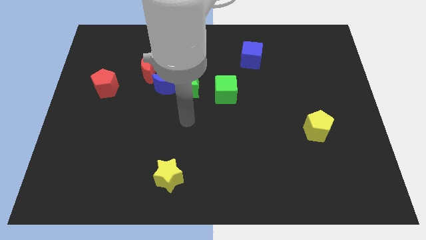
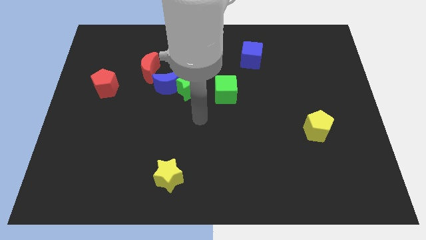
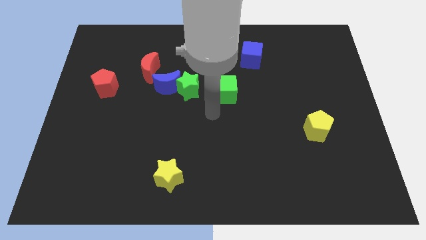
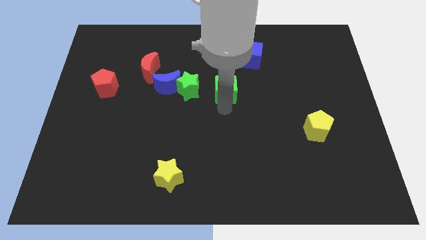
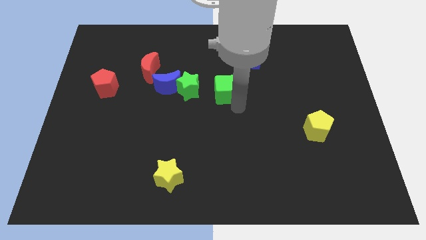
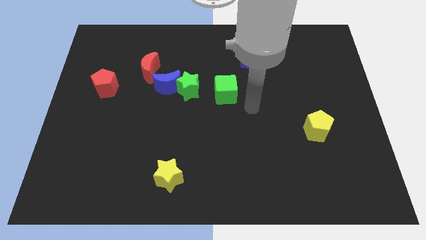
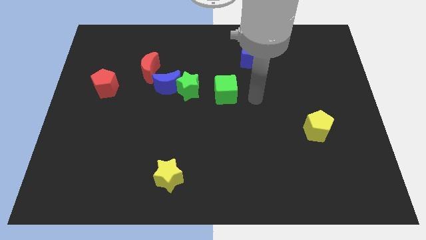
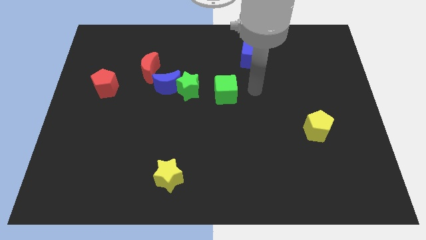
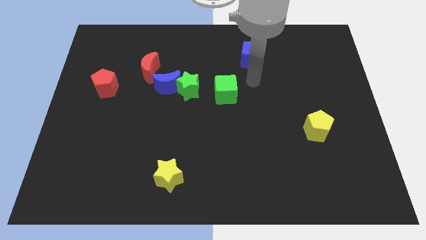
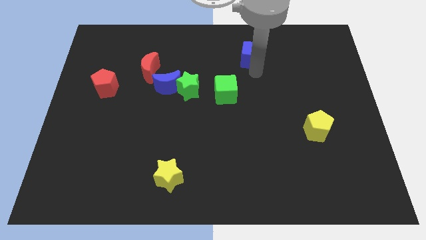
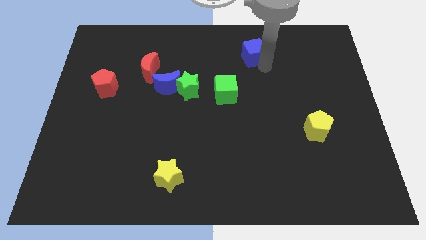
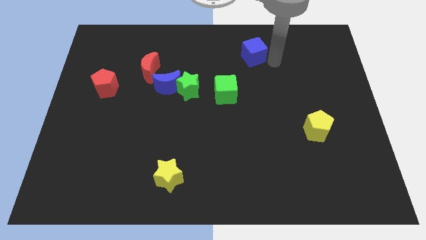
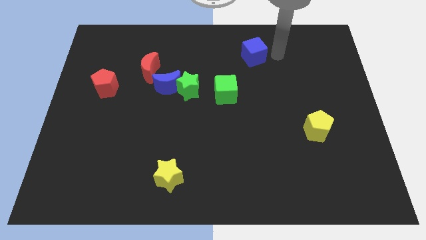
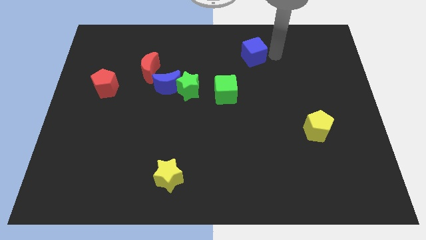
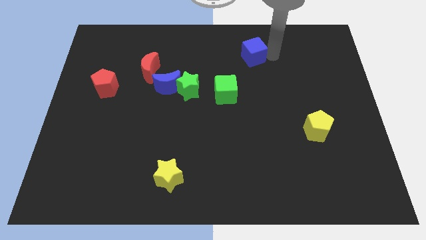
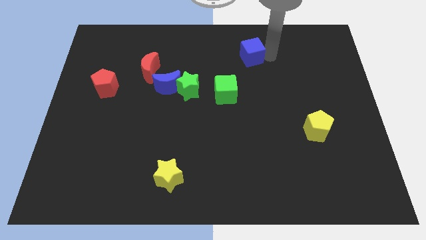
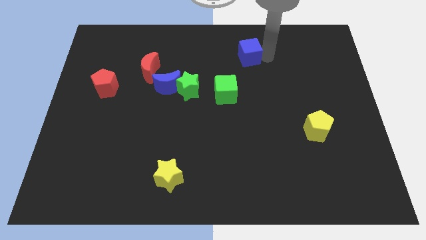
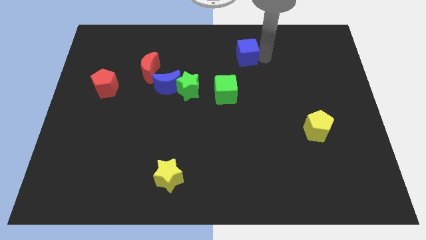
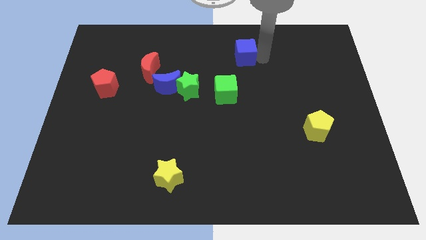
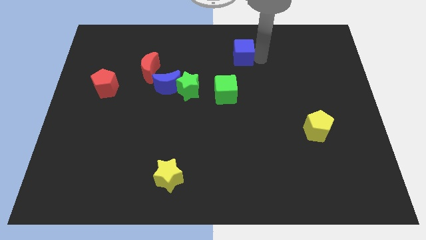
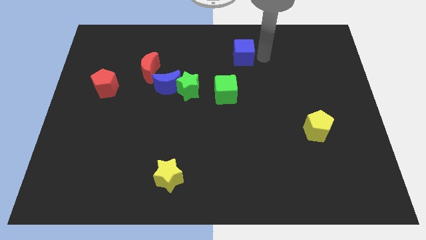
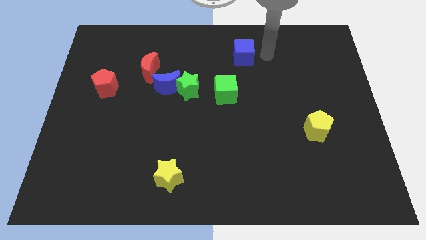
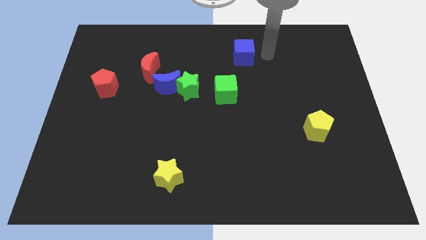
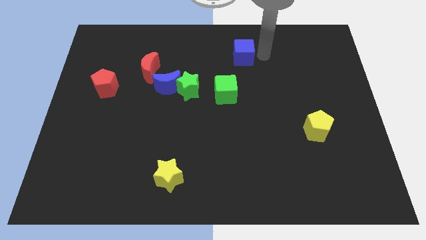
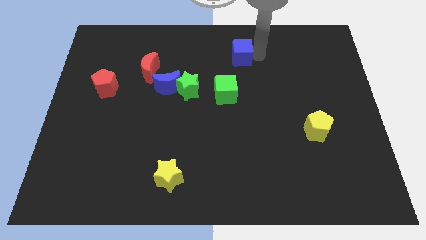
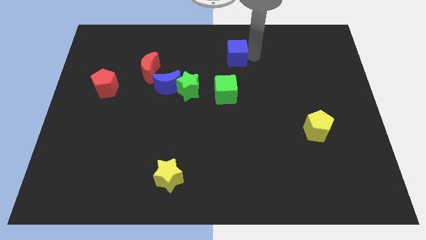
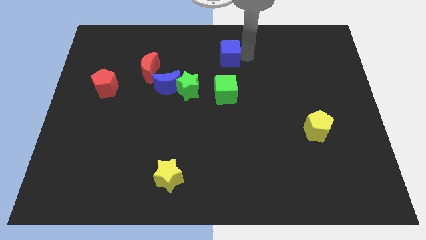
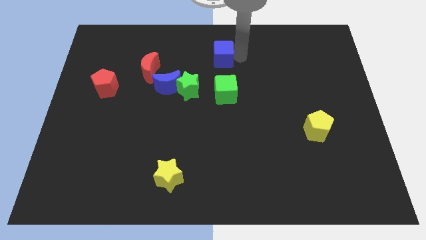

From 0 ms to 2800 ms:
push the blue cube left a bit

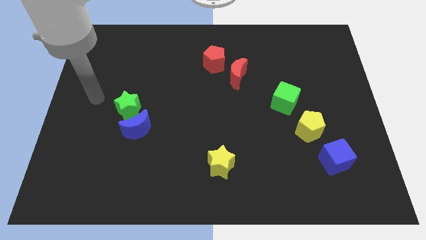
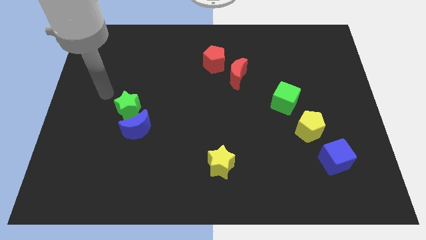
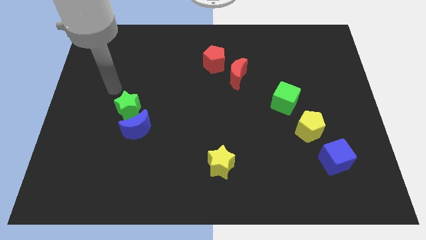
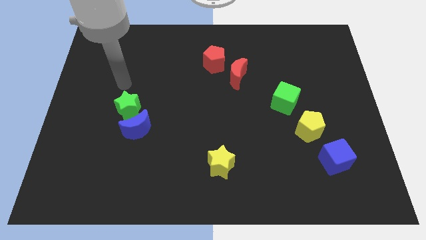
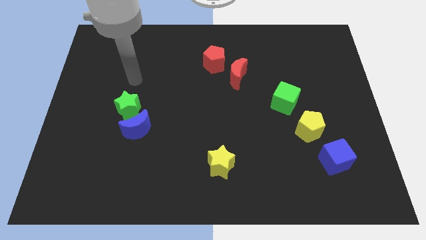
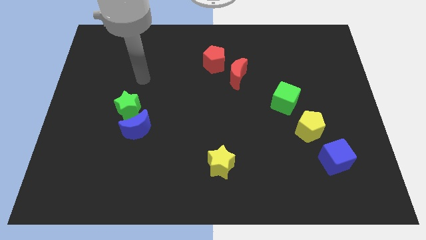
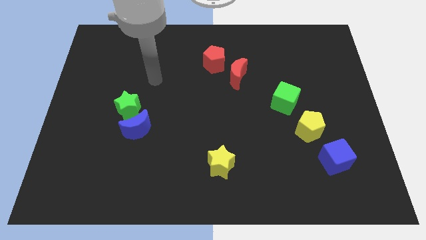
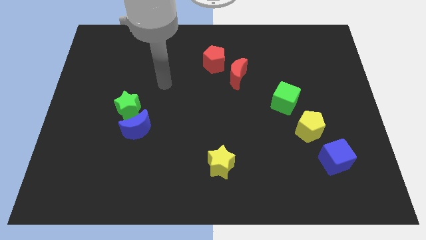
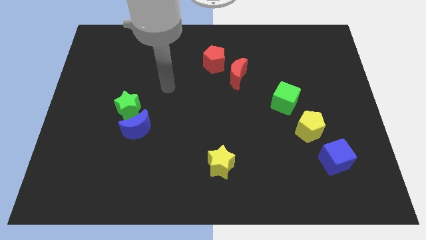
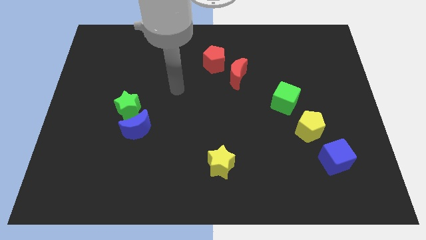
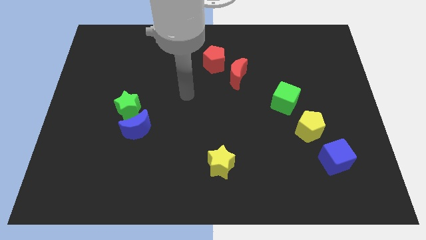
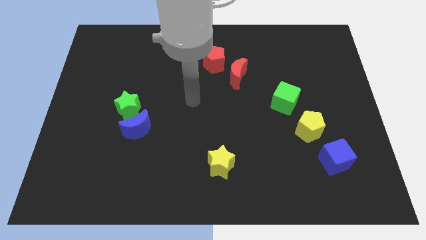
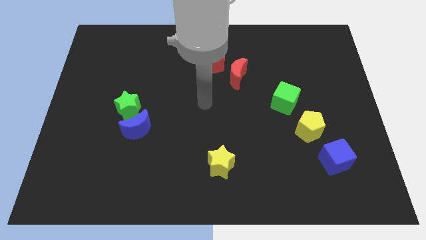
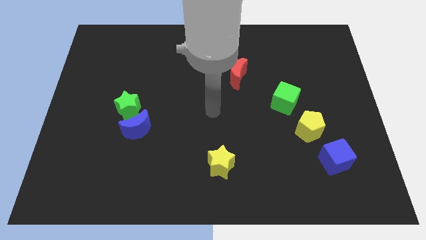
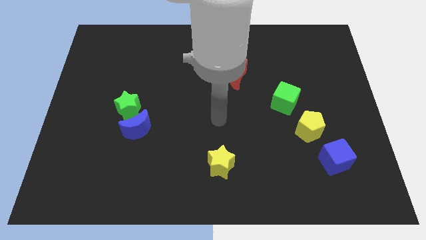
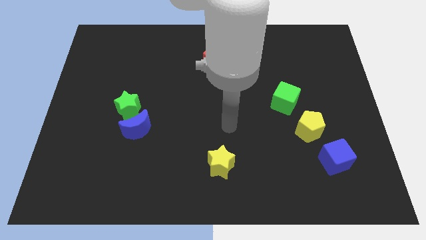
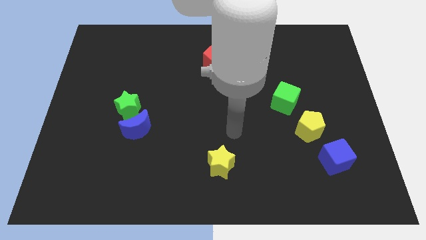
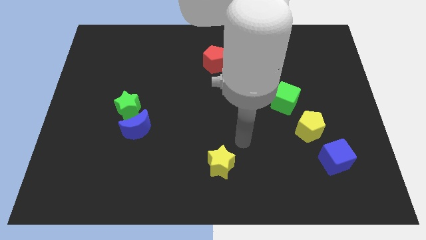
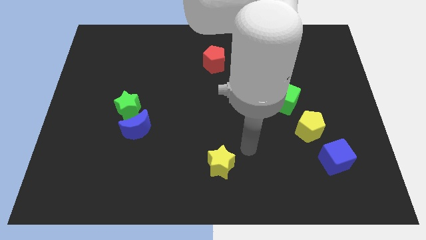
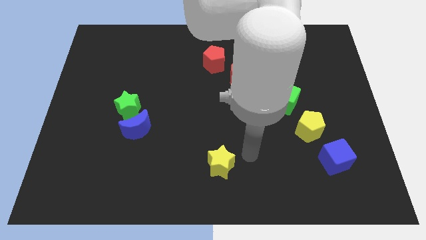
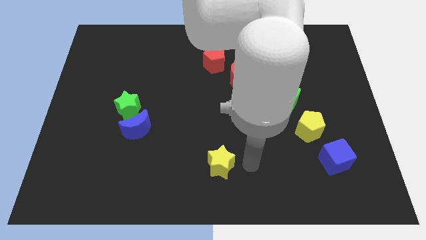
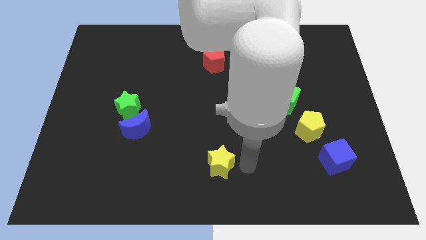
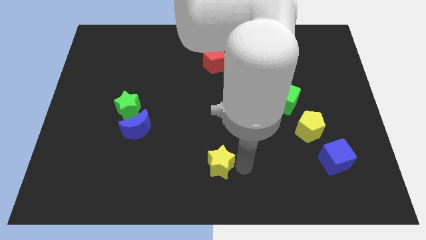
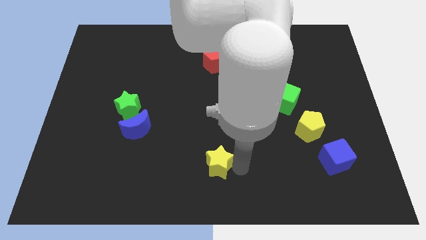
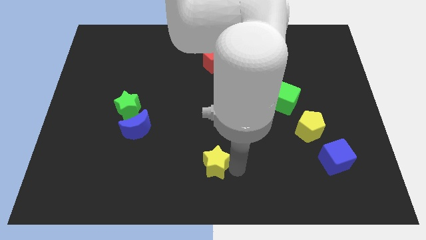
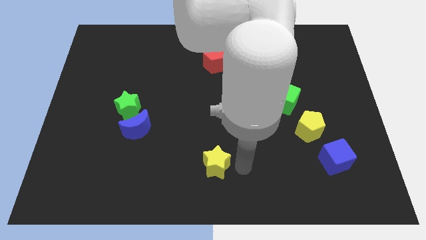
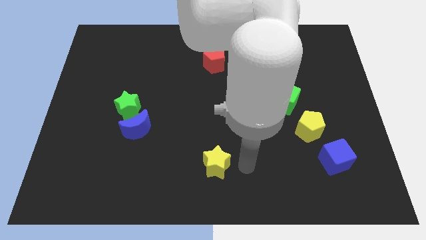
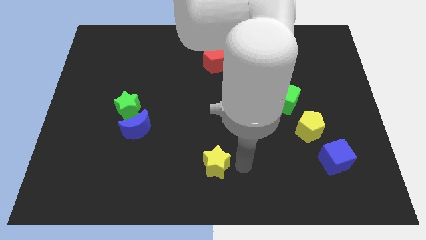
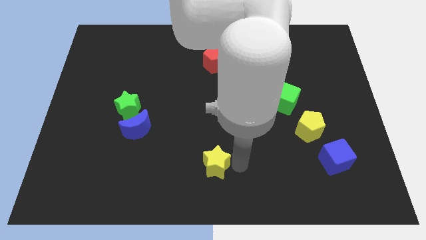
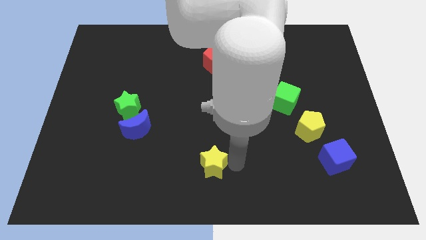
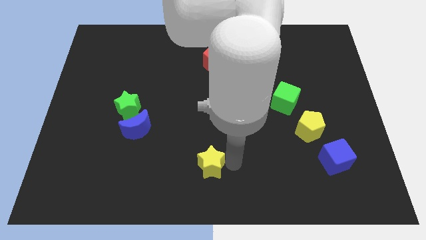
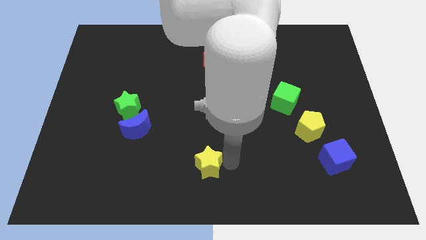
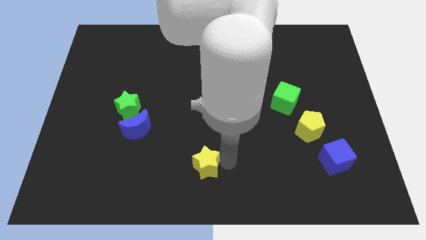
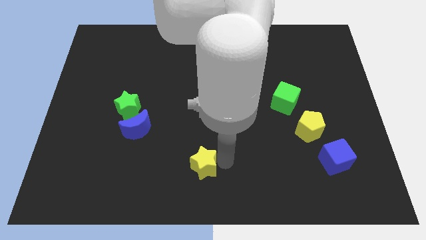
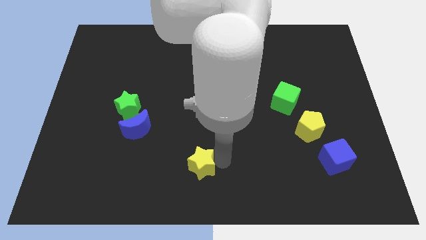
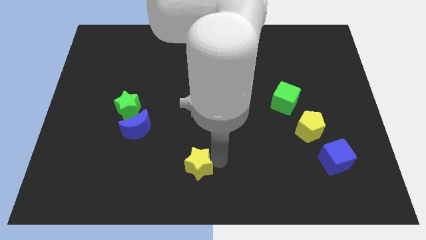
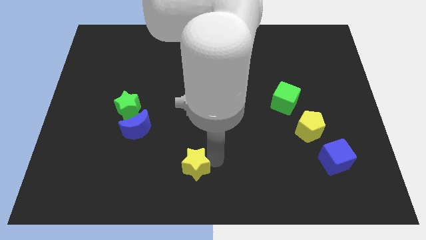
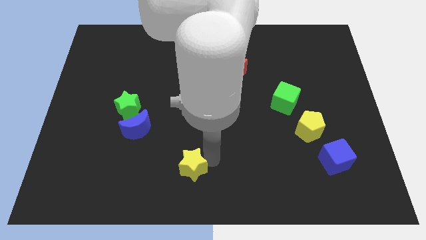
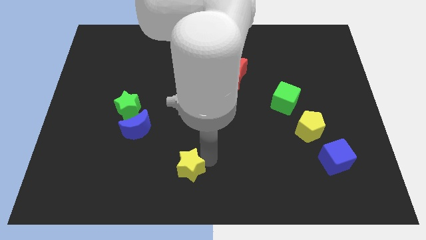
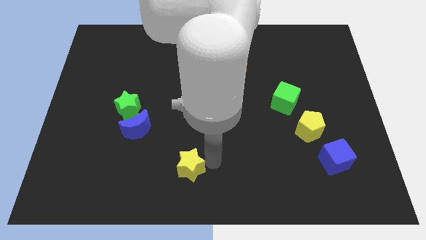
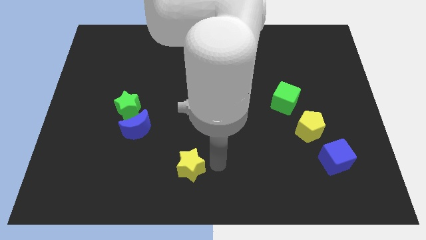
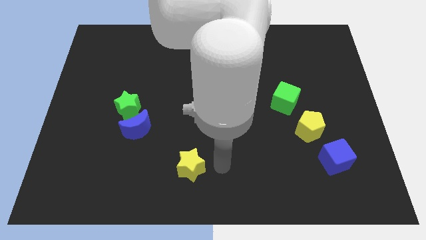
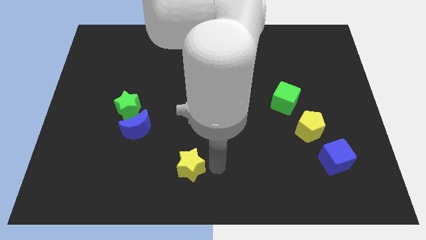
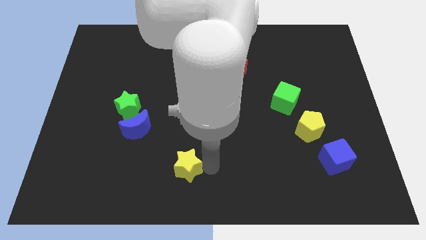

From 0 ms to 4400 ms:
slightly move the yellow star left

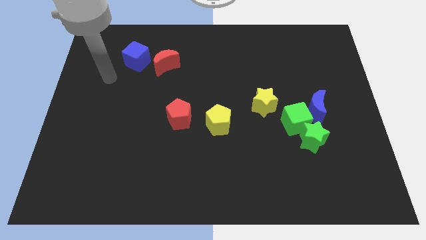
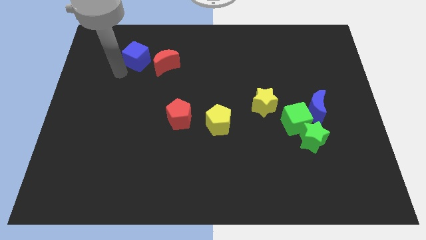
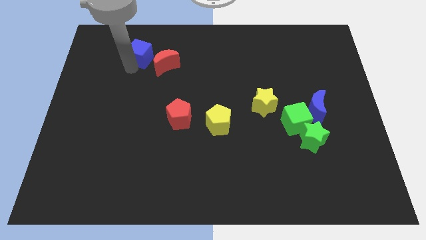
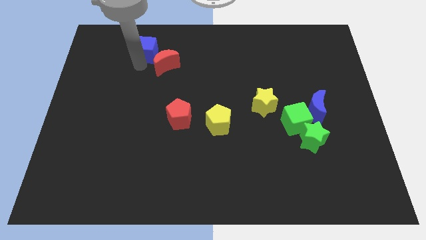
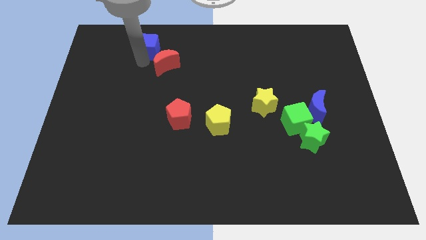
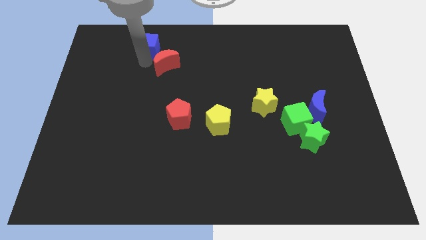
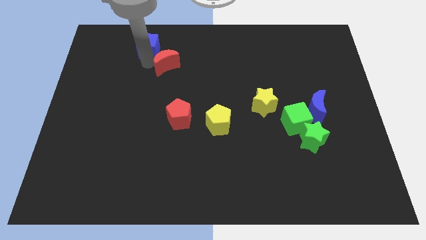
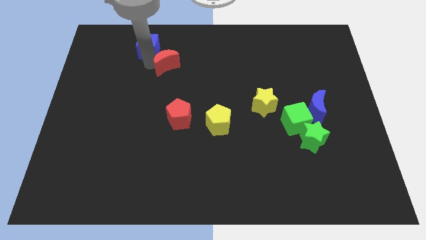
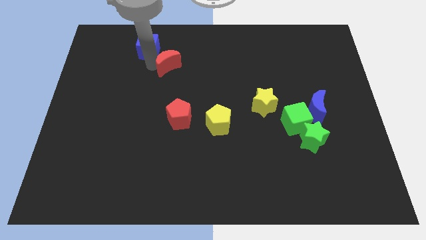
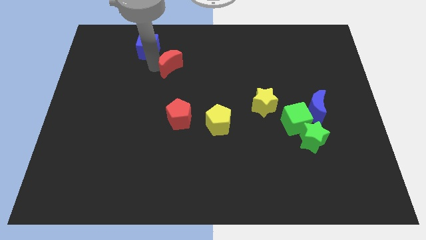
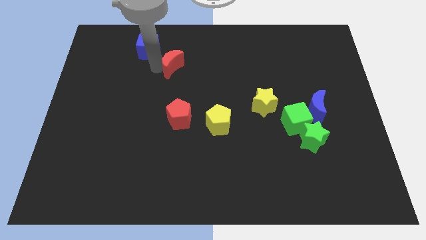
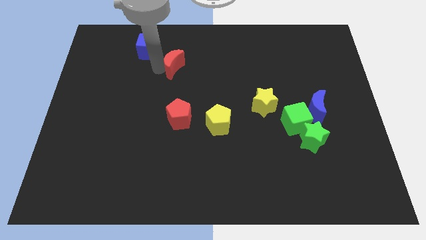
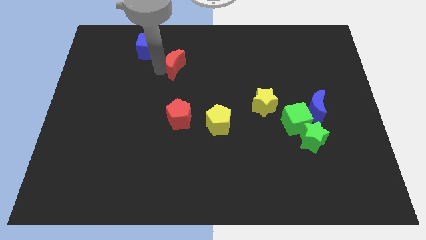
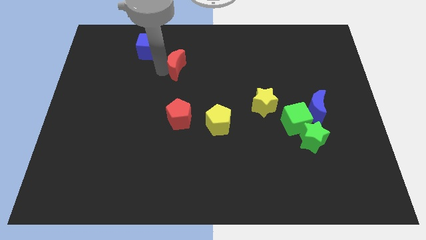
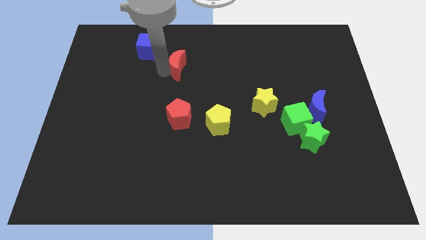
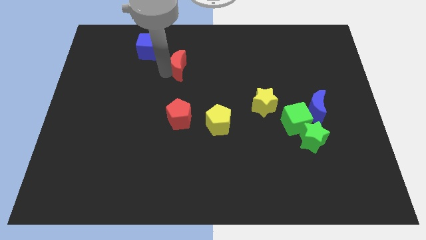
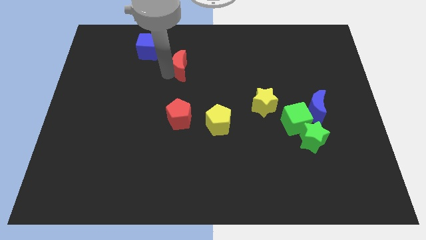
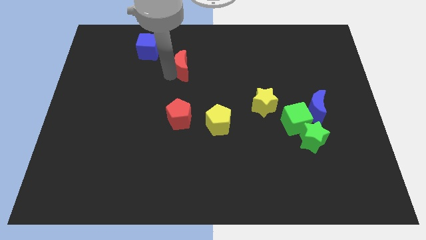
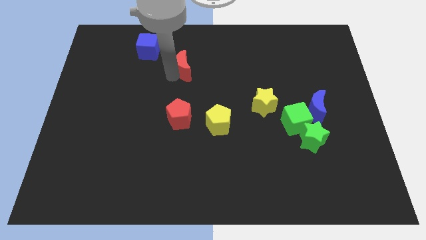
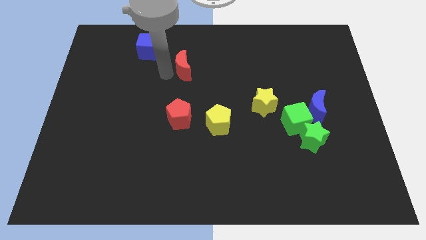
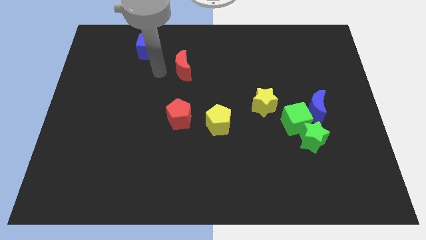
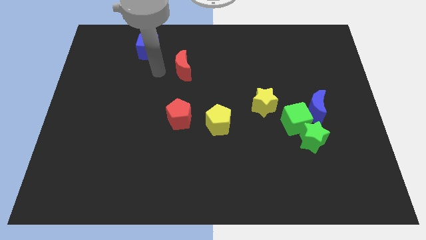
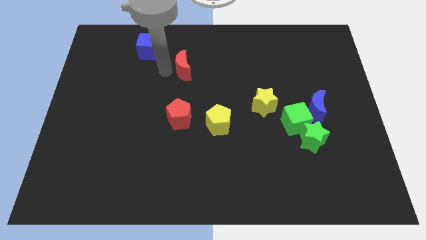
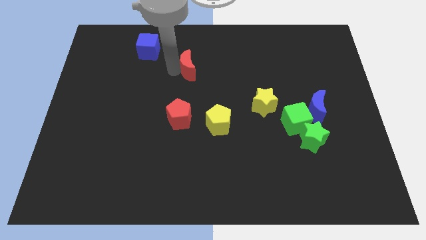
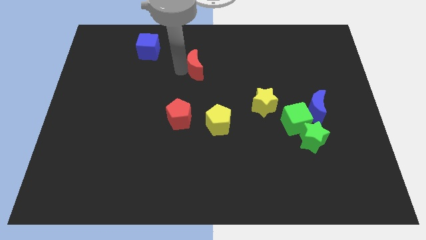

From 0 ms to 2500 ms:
slide the red moon a bit right
